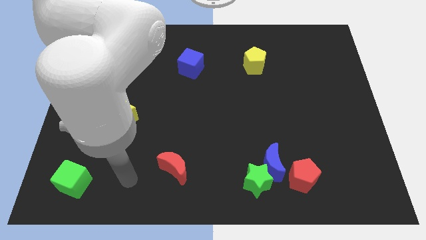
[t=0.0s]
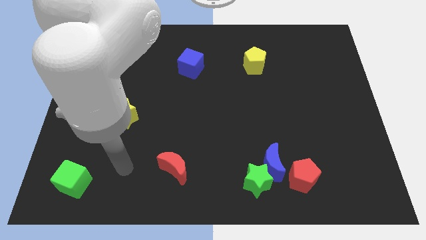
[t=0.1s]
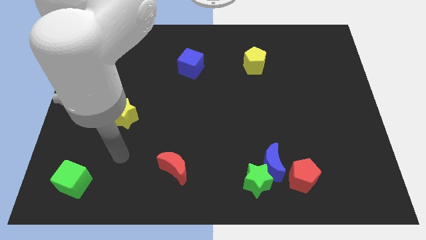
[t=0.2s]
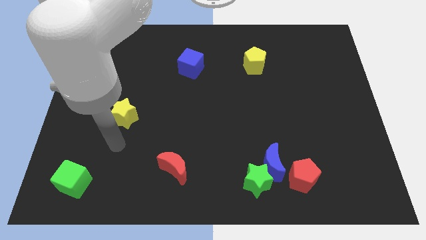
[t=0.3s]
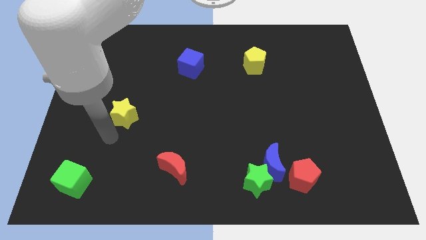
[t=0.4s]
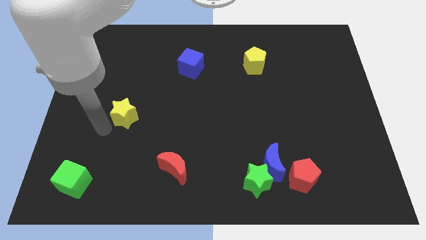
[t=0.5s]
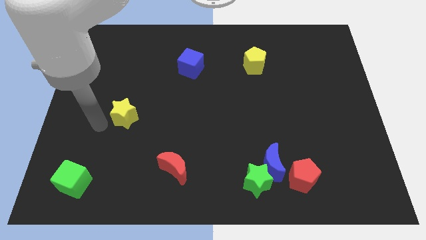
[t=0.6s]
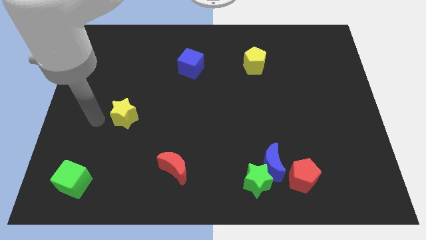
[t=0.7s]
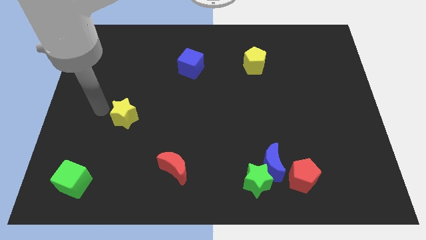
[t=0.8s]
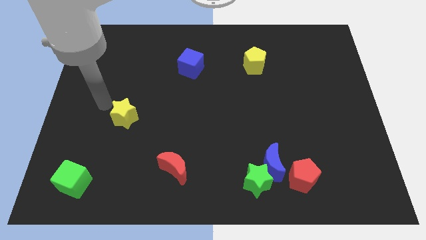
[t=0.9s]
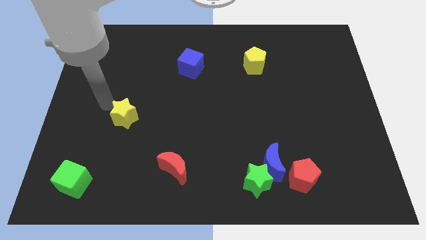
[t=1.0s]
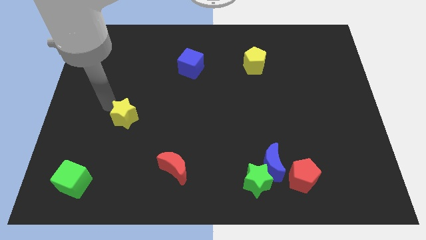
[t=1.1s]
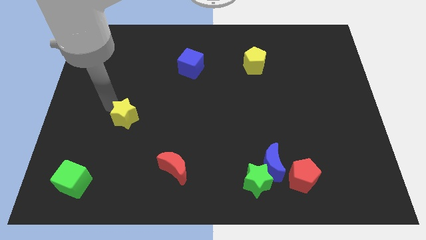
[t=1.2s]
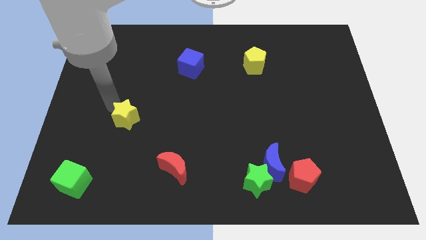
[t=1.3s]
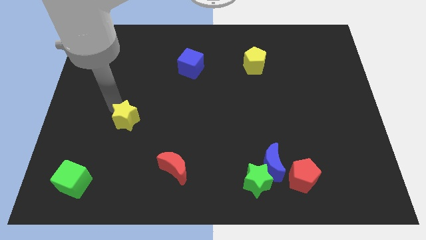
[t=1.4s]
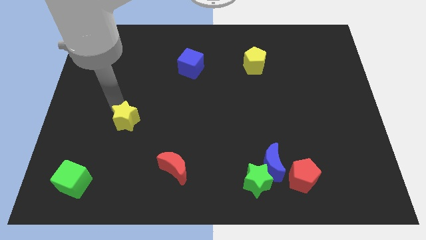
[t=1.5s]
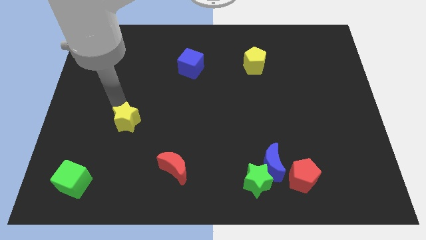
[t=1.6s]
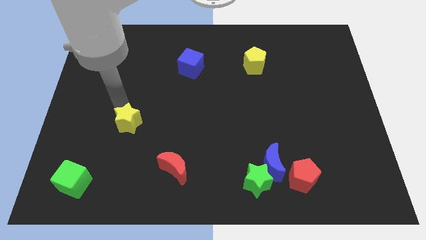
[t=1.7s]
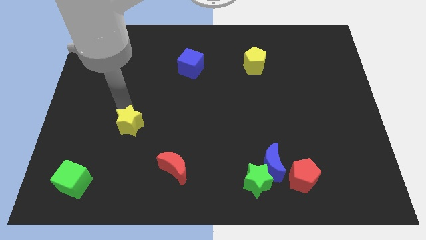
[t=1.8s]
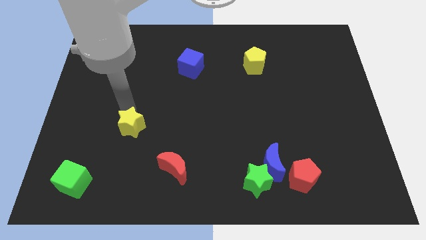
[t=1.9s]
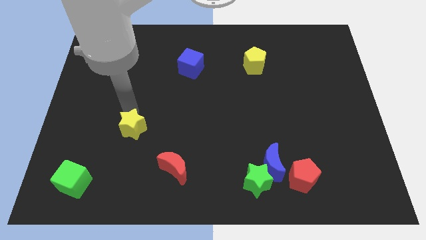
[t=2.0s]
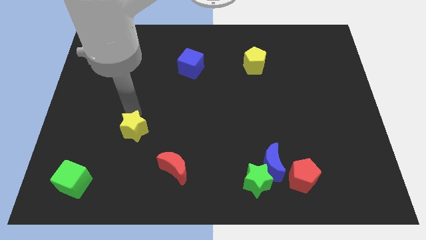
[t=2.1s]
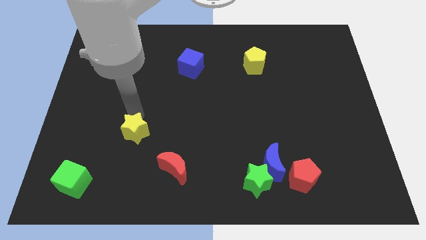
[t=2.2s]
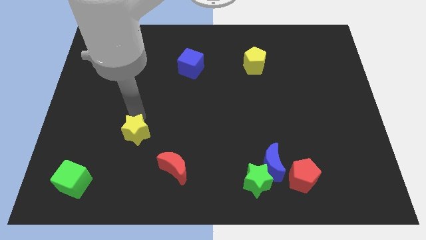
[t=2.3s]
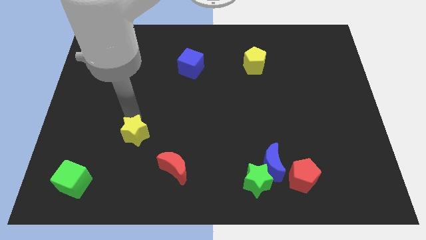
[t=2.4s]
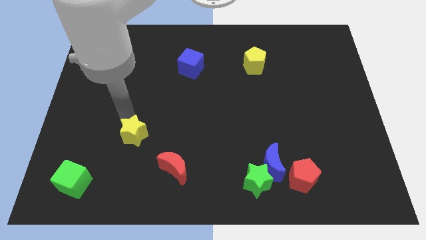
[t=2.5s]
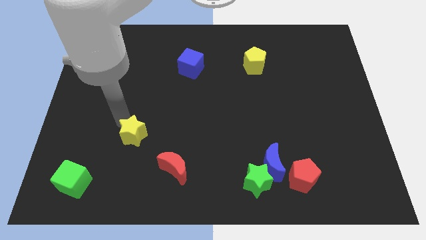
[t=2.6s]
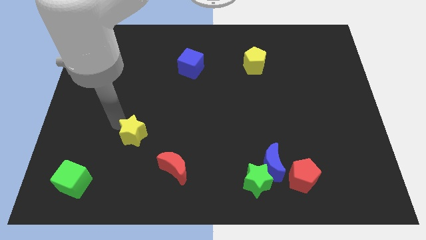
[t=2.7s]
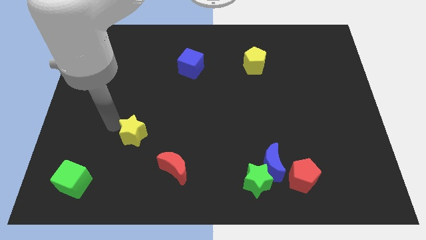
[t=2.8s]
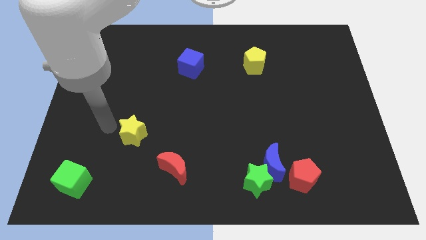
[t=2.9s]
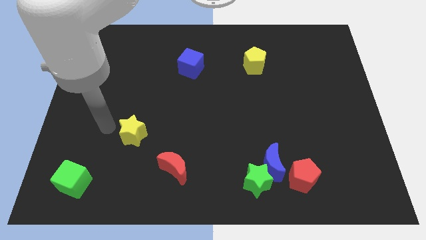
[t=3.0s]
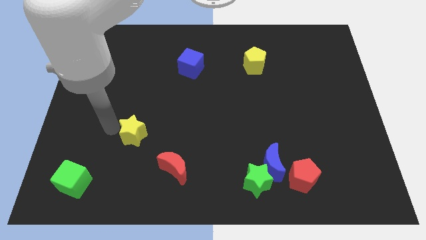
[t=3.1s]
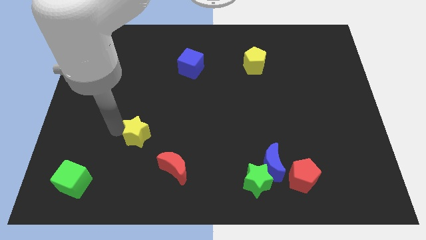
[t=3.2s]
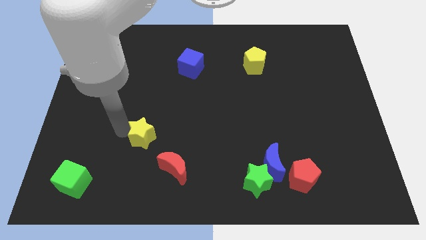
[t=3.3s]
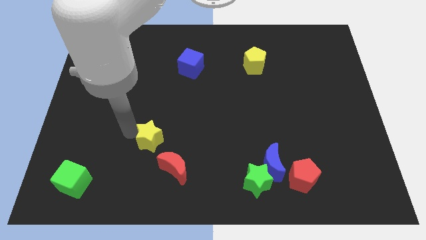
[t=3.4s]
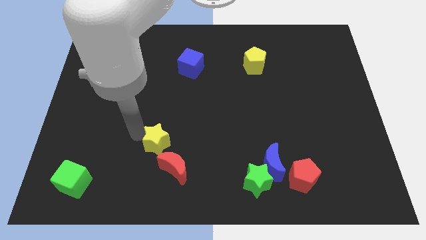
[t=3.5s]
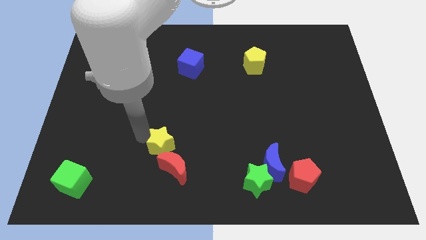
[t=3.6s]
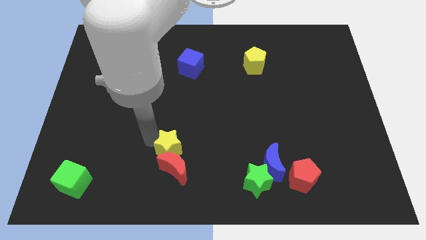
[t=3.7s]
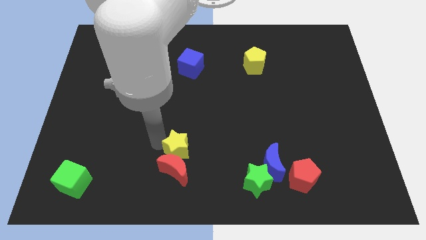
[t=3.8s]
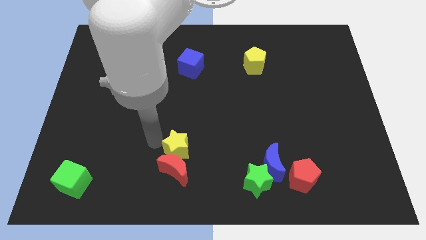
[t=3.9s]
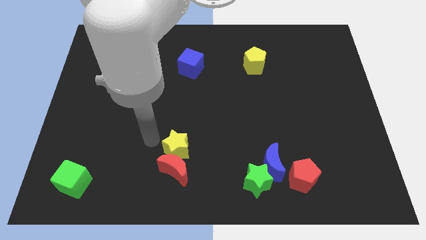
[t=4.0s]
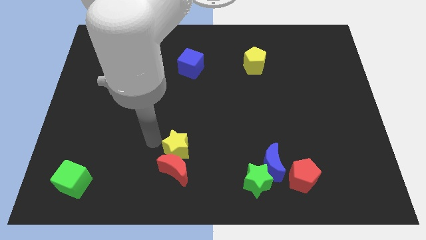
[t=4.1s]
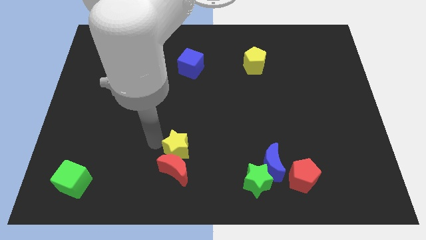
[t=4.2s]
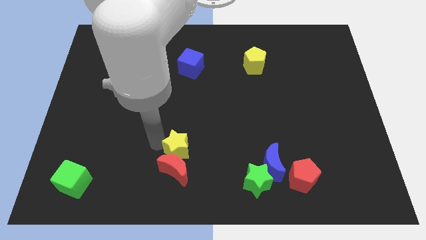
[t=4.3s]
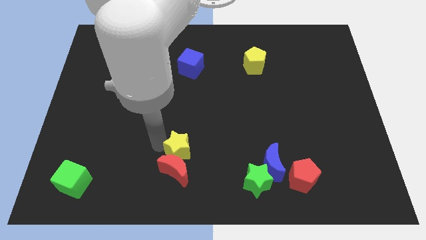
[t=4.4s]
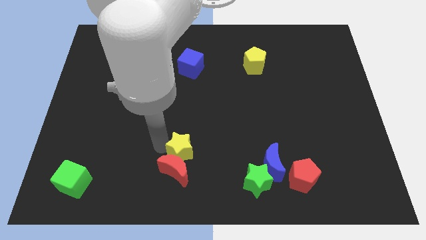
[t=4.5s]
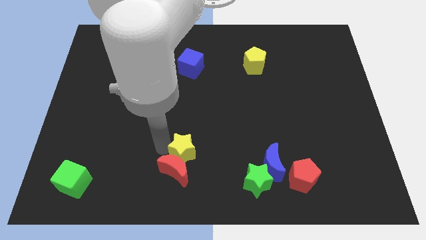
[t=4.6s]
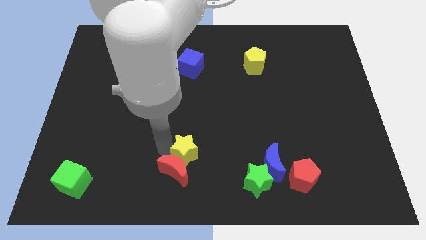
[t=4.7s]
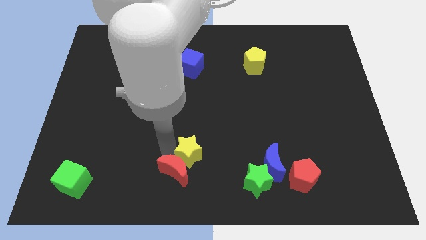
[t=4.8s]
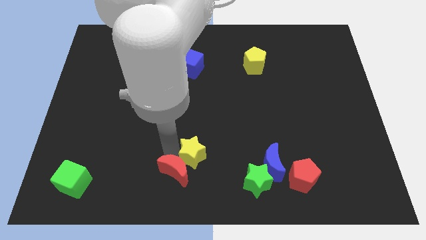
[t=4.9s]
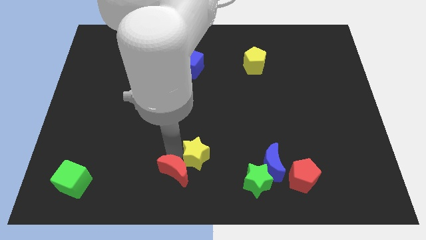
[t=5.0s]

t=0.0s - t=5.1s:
put the yellow star just left of the blue moon

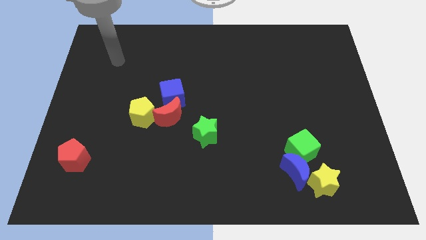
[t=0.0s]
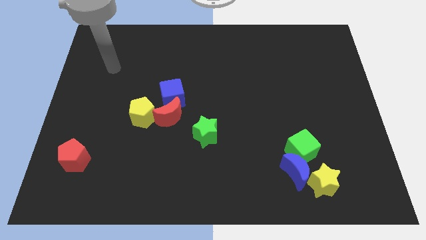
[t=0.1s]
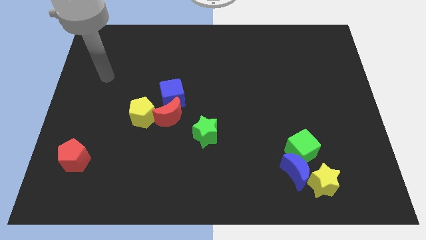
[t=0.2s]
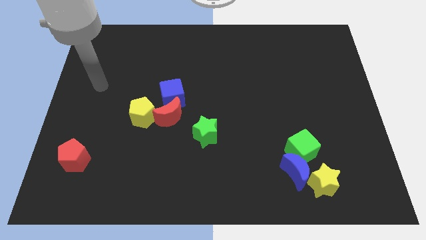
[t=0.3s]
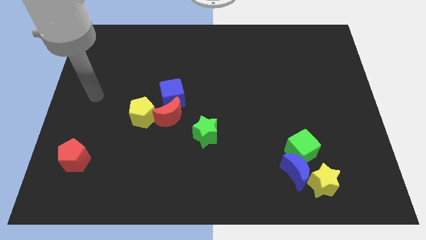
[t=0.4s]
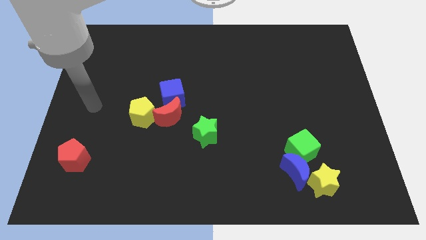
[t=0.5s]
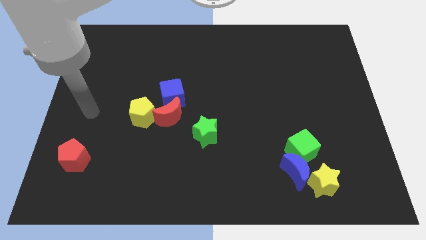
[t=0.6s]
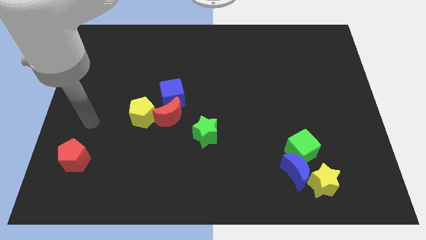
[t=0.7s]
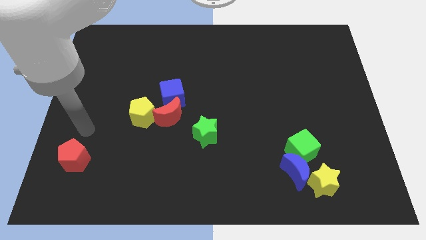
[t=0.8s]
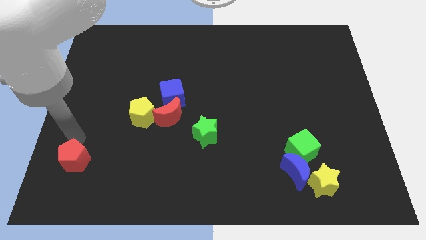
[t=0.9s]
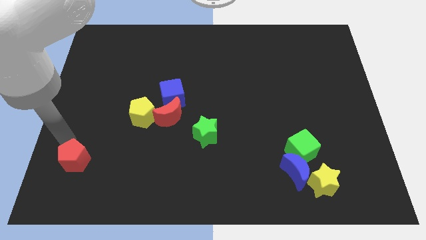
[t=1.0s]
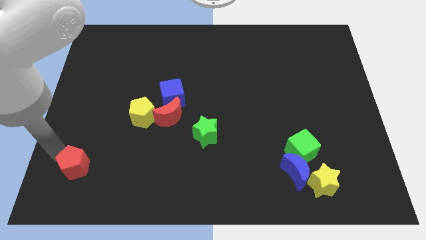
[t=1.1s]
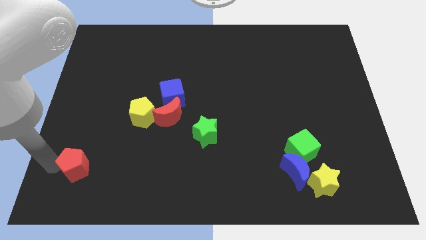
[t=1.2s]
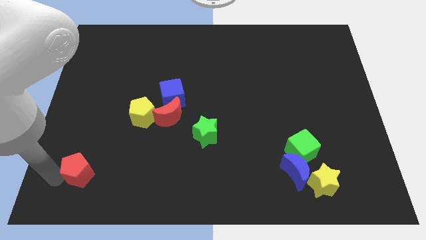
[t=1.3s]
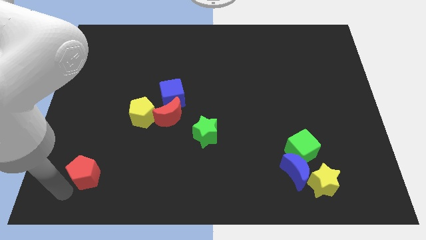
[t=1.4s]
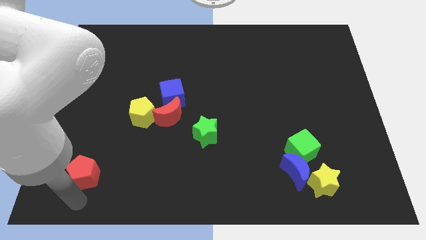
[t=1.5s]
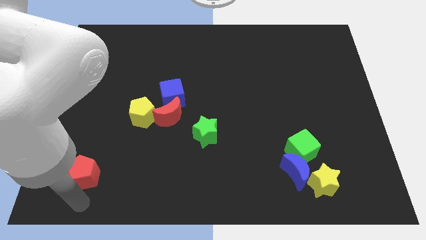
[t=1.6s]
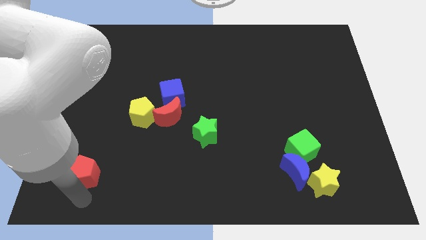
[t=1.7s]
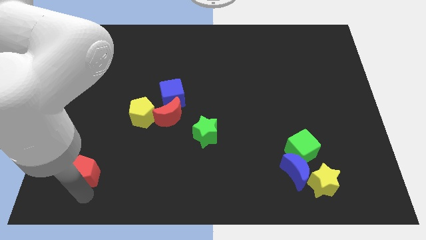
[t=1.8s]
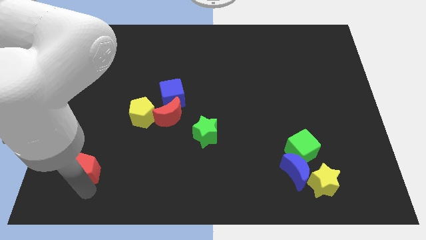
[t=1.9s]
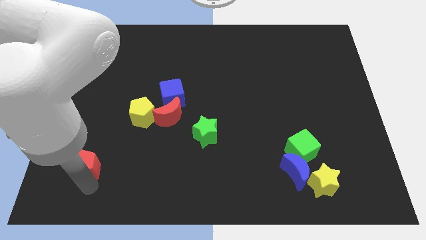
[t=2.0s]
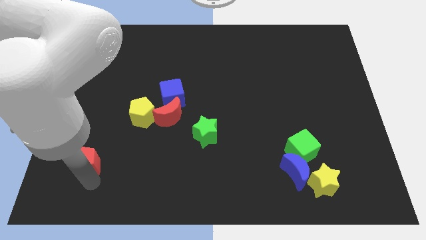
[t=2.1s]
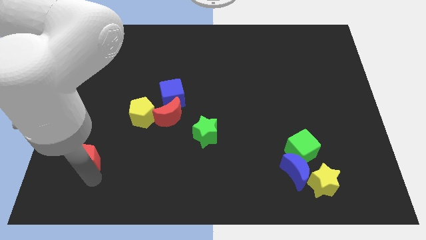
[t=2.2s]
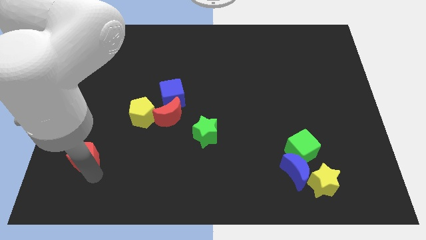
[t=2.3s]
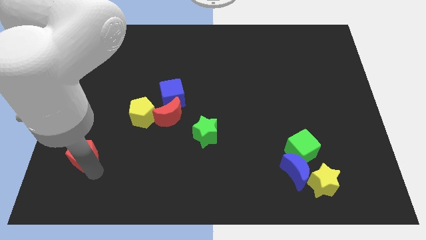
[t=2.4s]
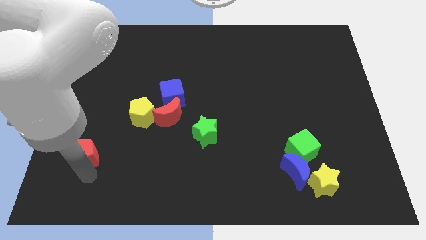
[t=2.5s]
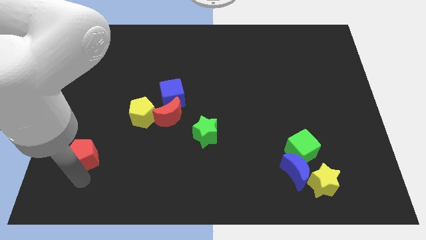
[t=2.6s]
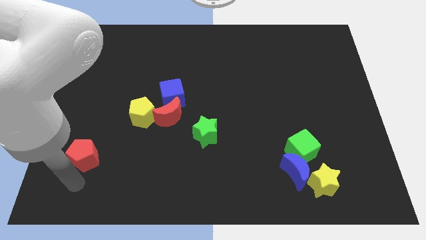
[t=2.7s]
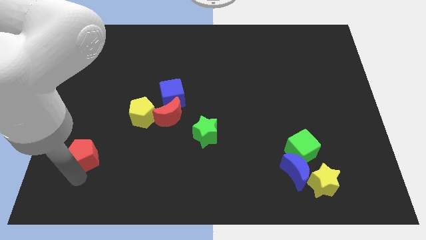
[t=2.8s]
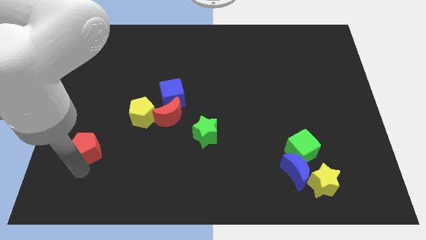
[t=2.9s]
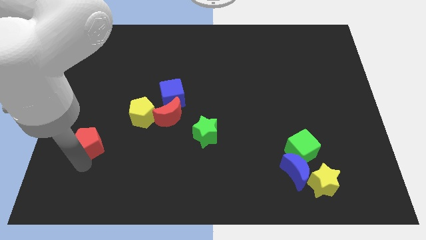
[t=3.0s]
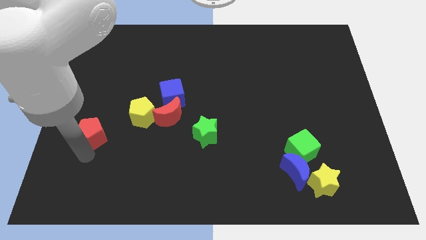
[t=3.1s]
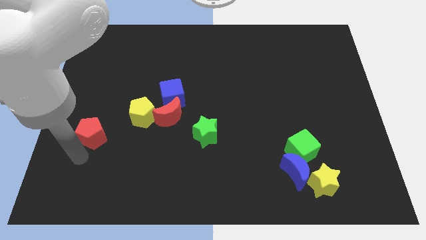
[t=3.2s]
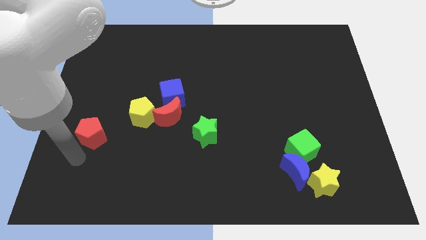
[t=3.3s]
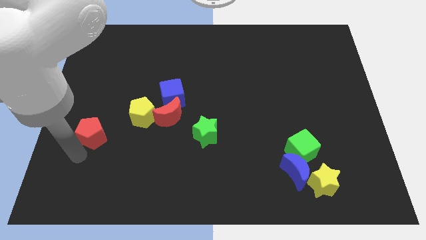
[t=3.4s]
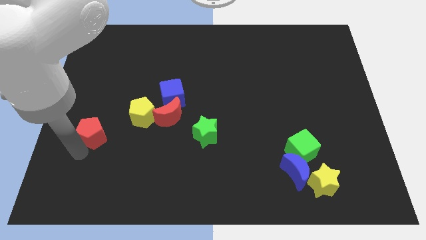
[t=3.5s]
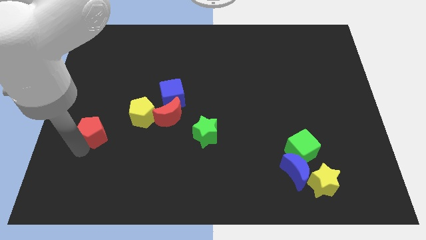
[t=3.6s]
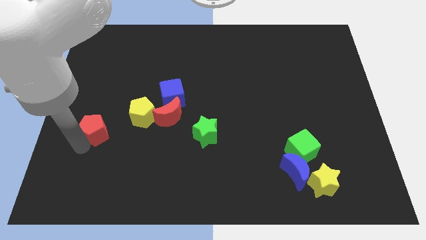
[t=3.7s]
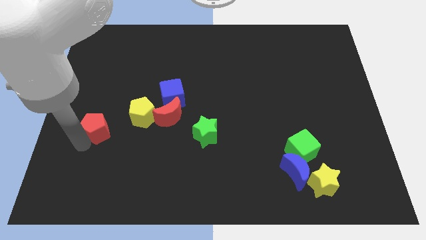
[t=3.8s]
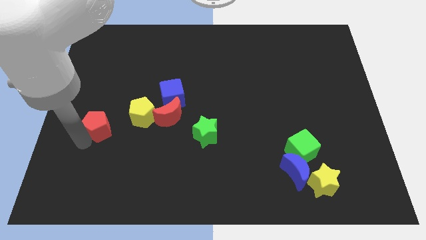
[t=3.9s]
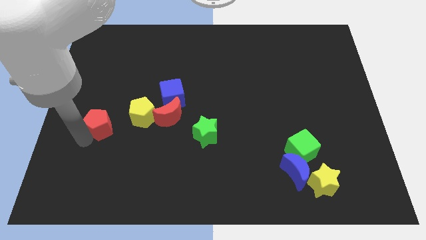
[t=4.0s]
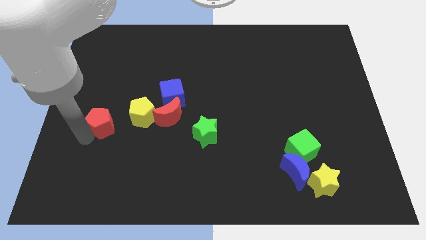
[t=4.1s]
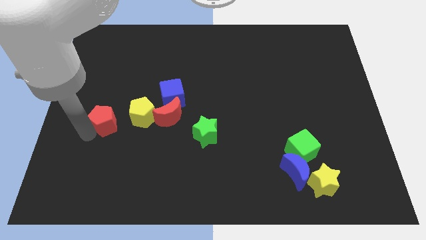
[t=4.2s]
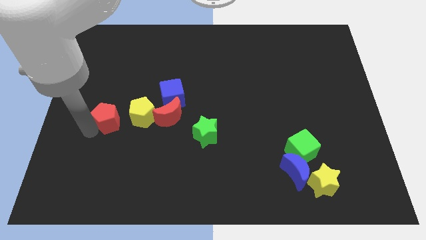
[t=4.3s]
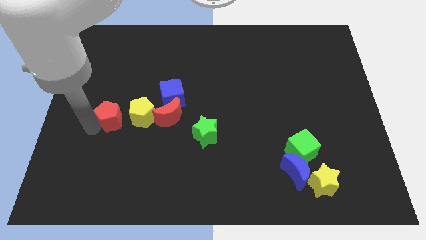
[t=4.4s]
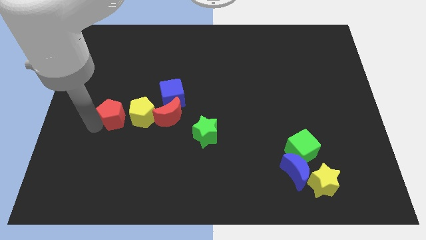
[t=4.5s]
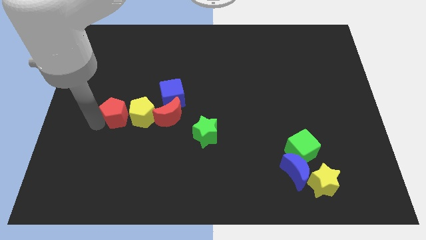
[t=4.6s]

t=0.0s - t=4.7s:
move the red pentagon to the top left of the yellow pentagon
